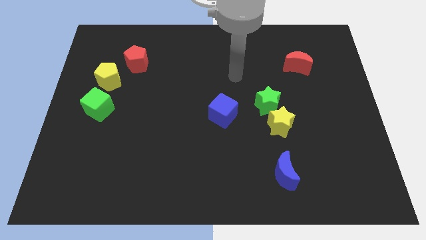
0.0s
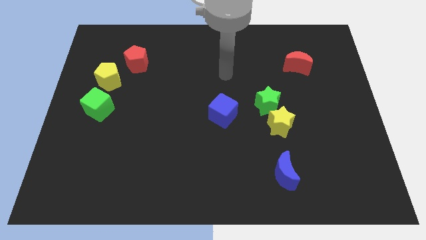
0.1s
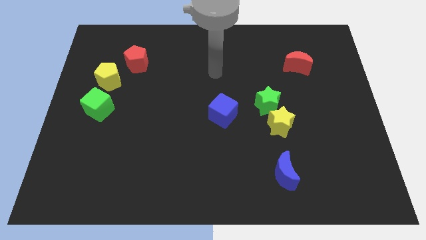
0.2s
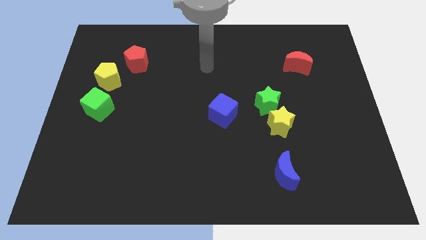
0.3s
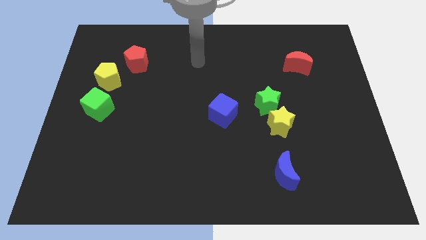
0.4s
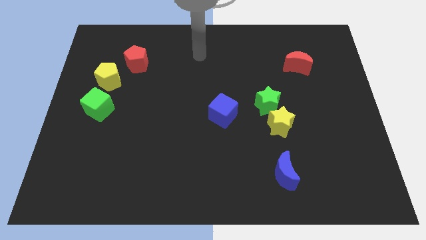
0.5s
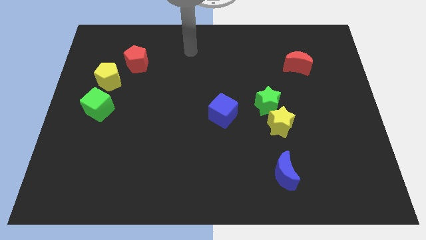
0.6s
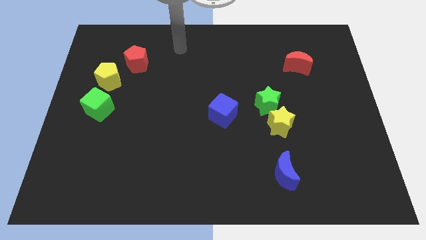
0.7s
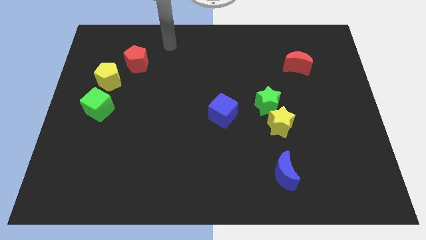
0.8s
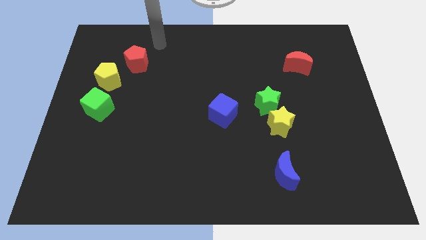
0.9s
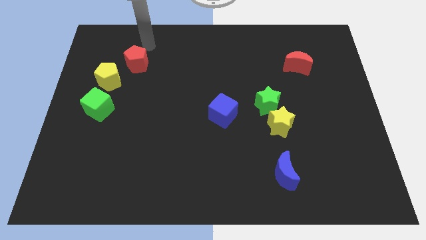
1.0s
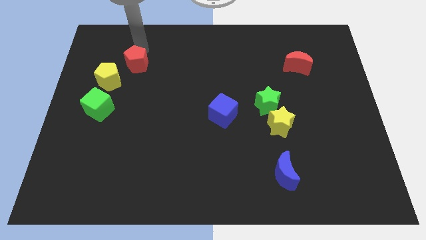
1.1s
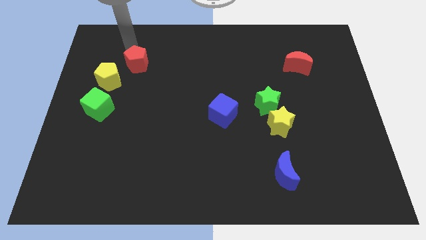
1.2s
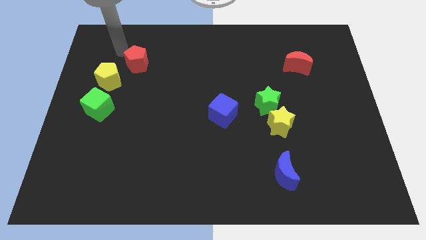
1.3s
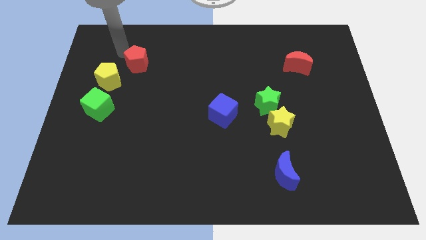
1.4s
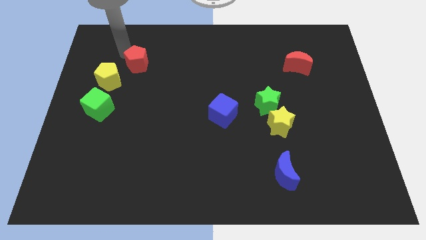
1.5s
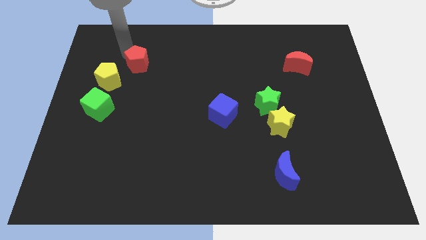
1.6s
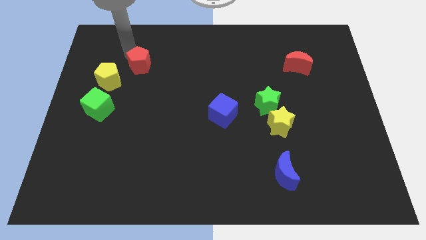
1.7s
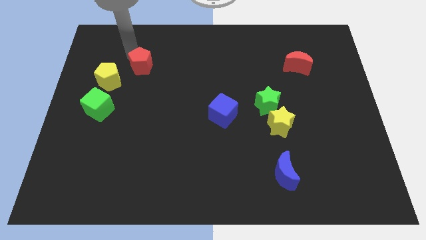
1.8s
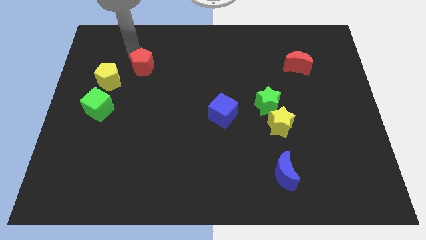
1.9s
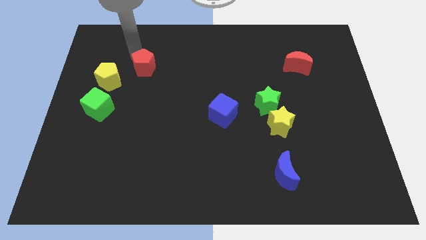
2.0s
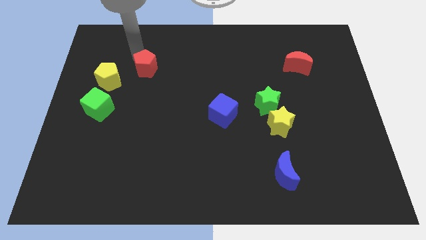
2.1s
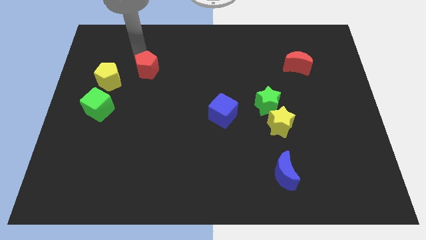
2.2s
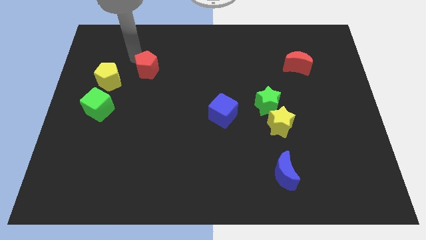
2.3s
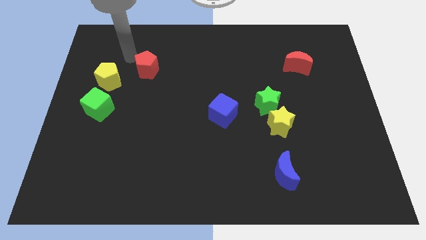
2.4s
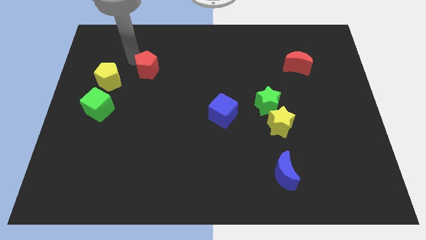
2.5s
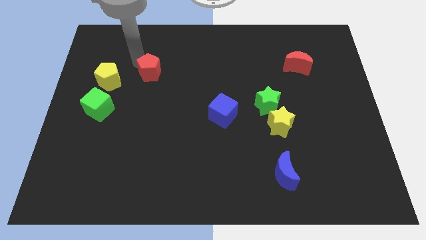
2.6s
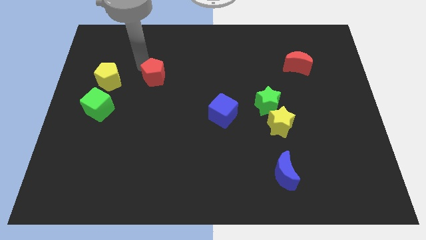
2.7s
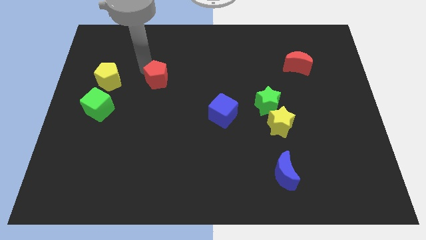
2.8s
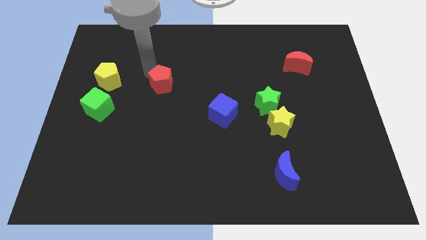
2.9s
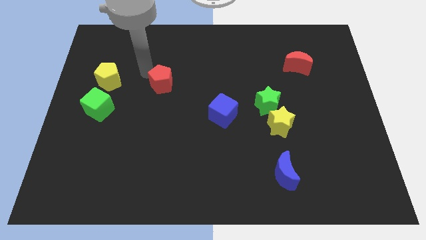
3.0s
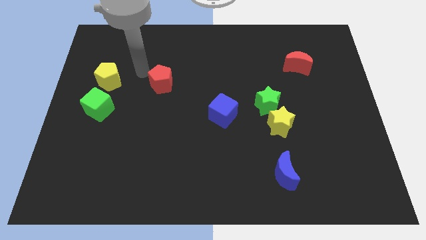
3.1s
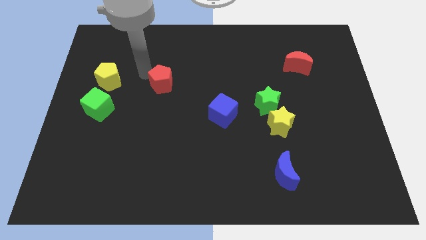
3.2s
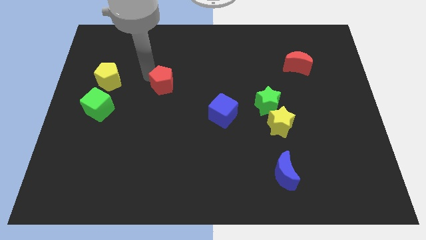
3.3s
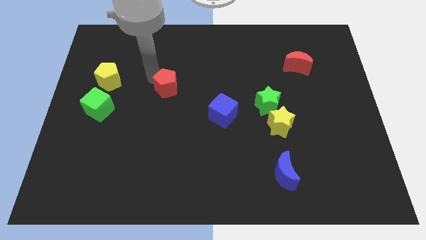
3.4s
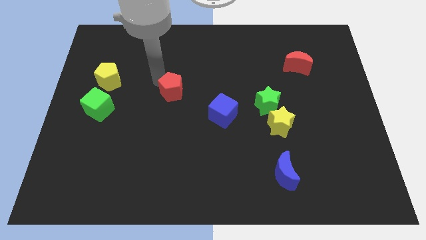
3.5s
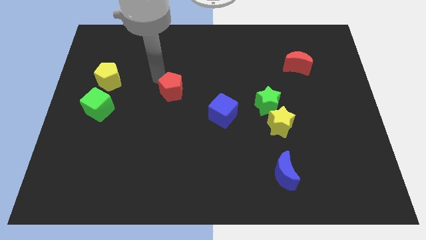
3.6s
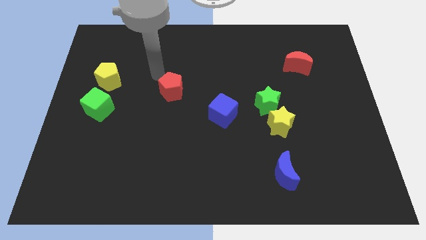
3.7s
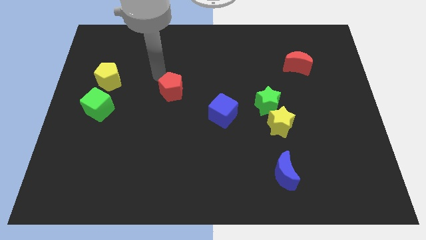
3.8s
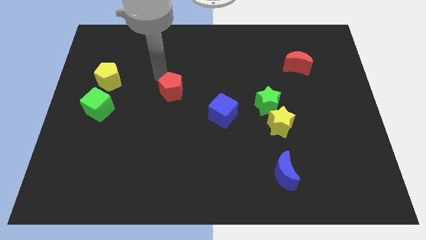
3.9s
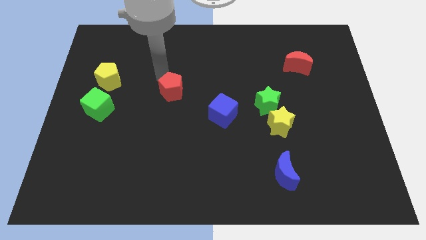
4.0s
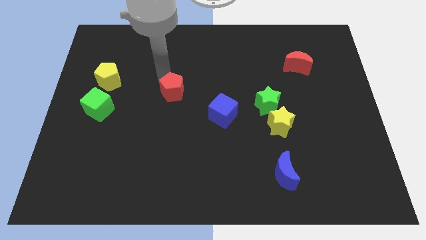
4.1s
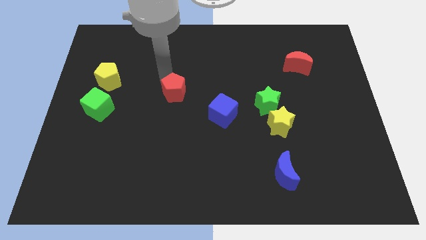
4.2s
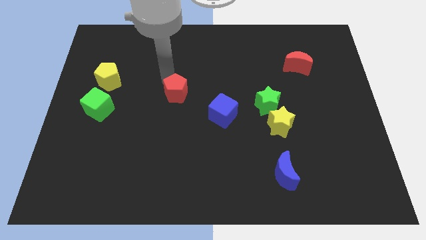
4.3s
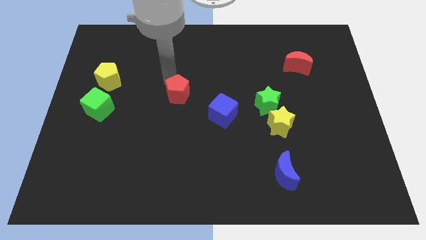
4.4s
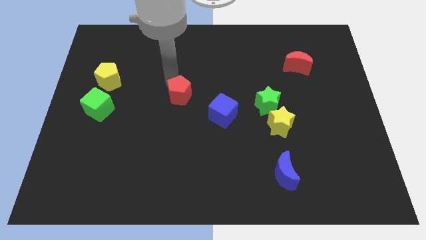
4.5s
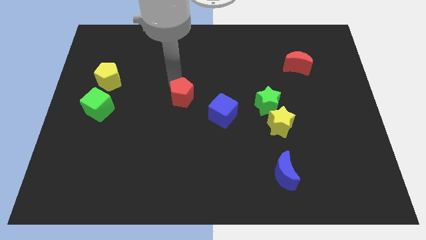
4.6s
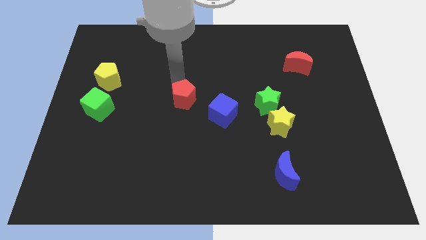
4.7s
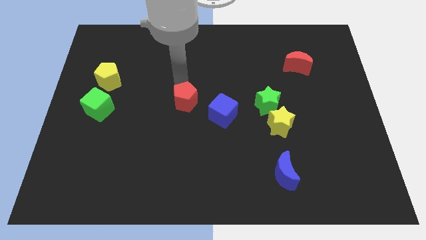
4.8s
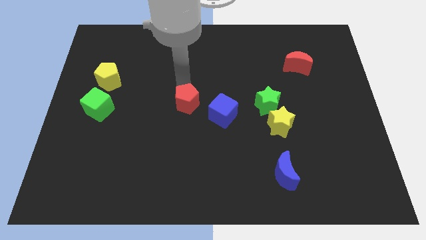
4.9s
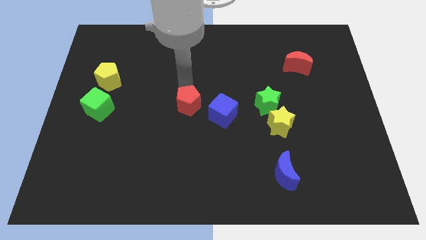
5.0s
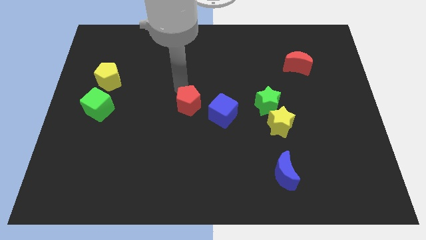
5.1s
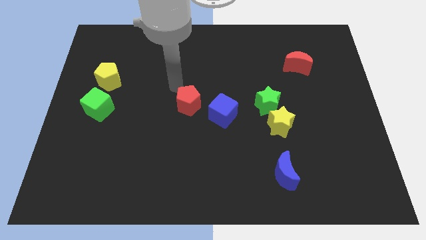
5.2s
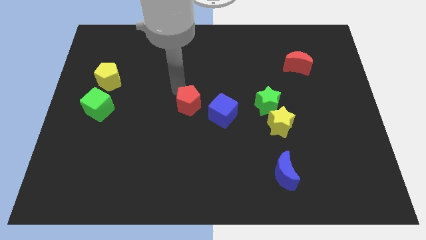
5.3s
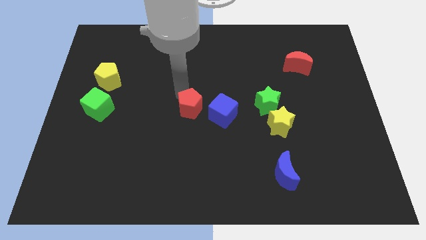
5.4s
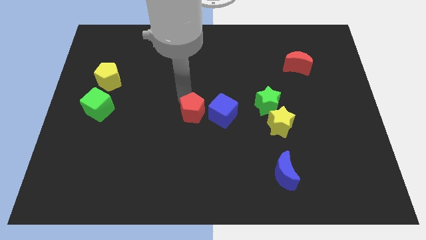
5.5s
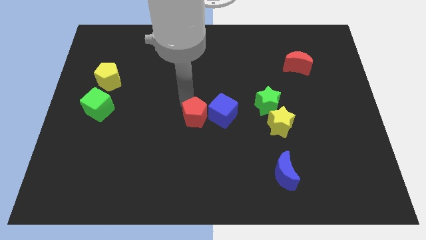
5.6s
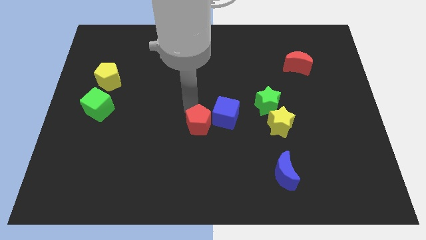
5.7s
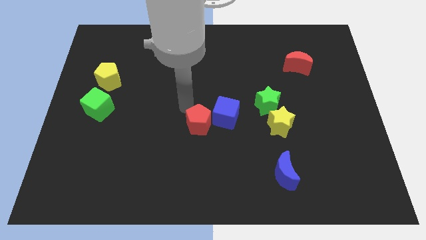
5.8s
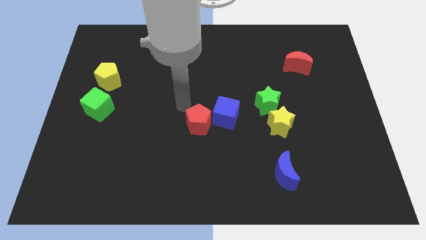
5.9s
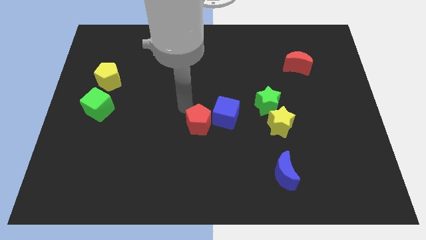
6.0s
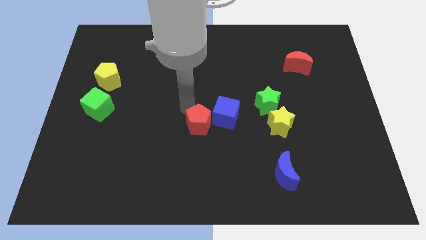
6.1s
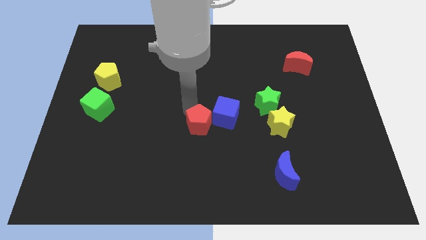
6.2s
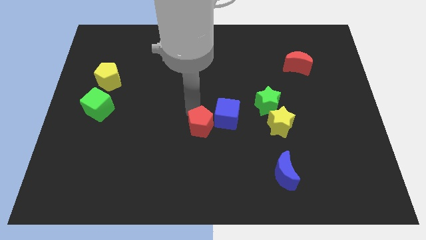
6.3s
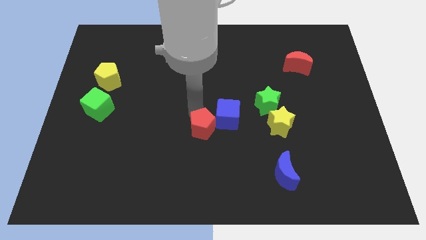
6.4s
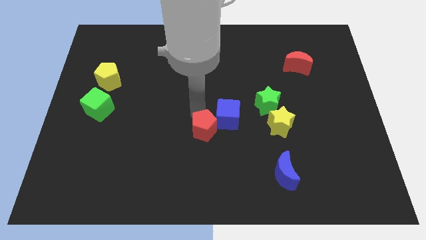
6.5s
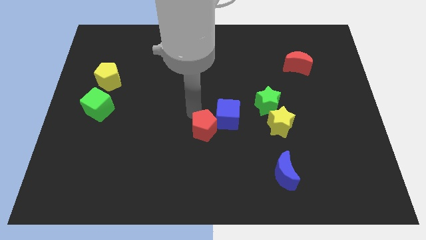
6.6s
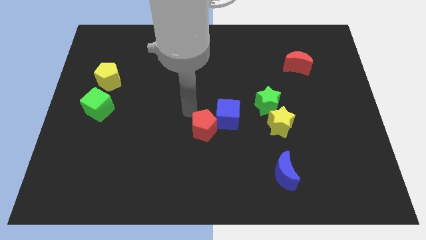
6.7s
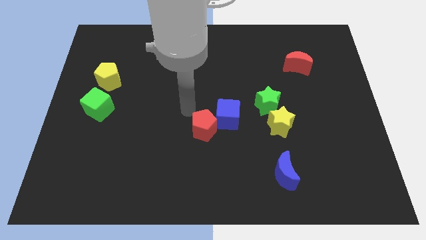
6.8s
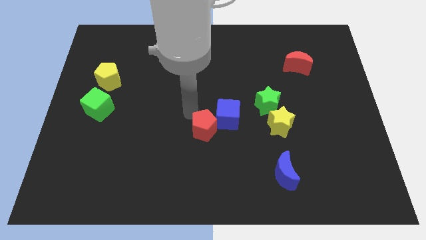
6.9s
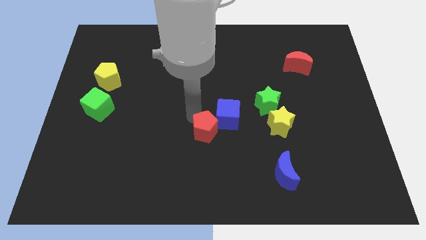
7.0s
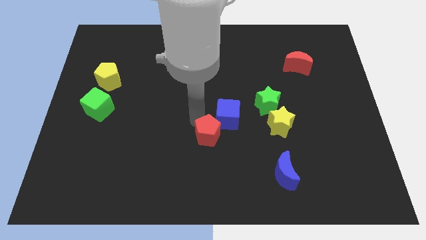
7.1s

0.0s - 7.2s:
put the red pentagon to the bottom side of the blue cube

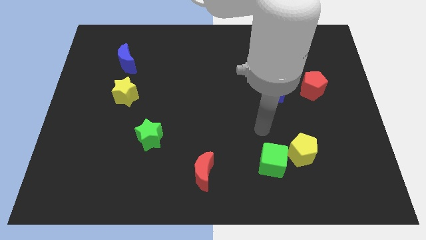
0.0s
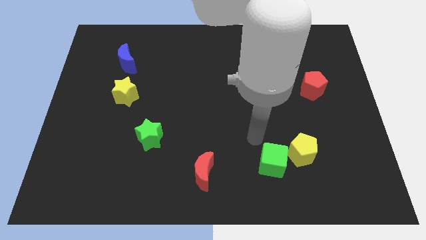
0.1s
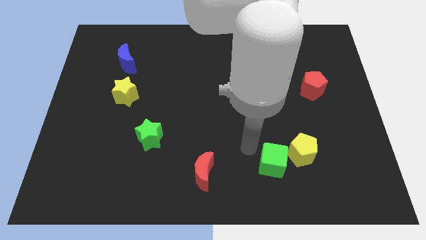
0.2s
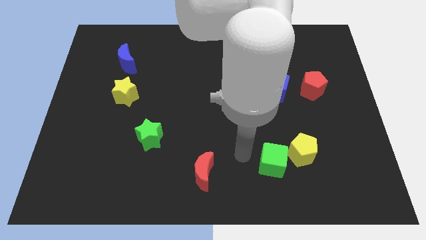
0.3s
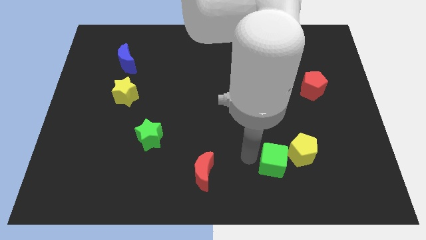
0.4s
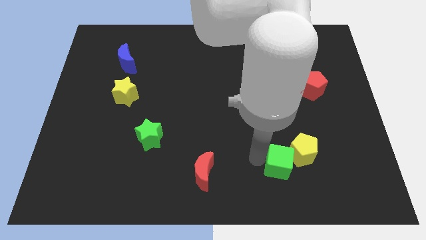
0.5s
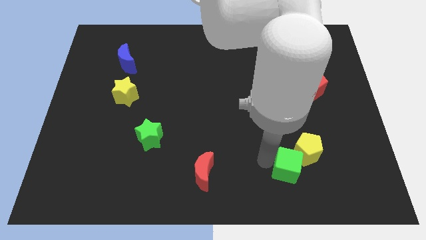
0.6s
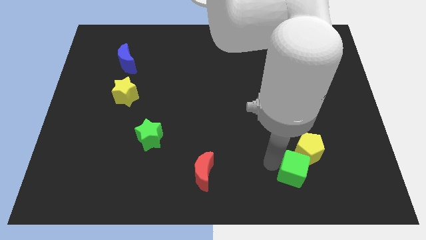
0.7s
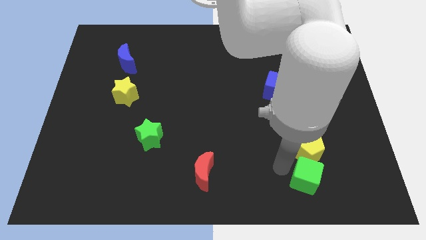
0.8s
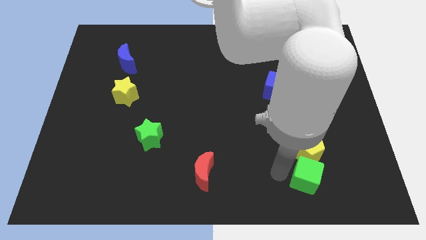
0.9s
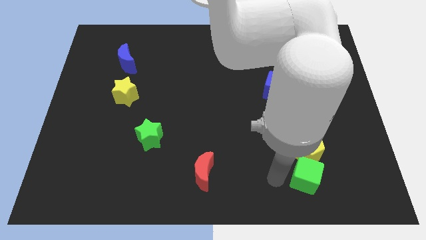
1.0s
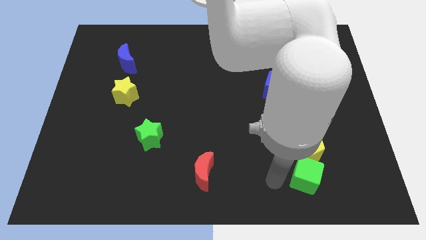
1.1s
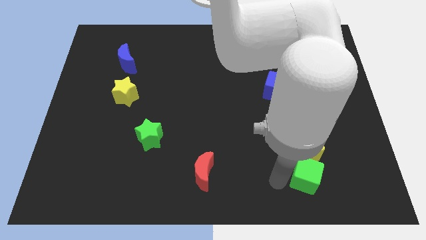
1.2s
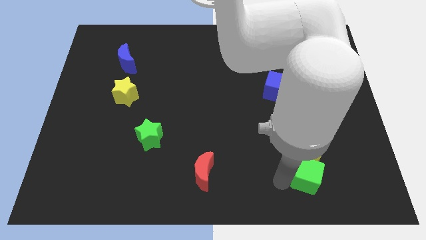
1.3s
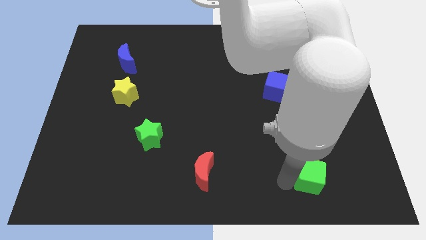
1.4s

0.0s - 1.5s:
slide the green cube to the bottom right side of the yellow pentagon
